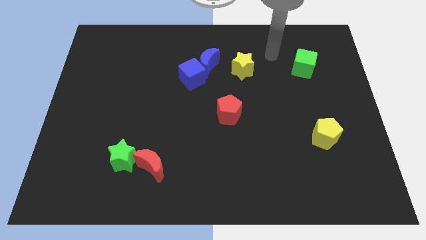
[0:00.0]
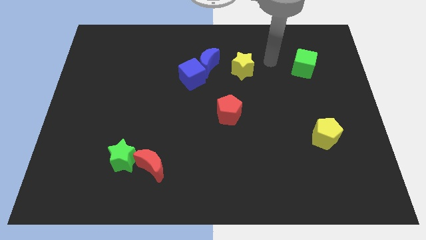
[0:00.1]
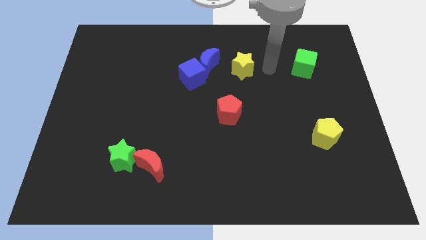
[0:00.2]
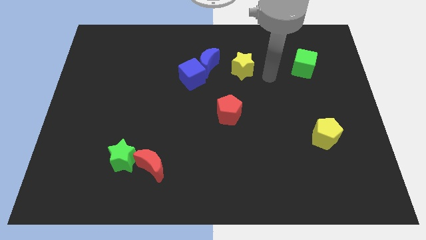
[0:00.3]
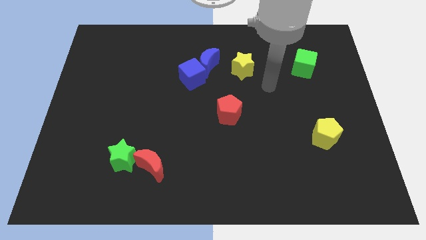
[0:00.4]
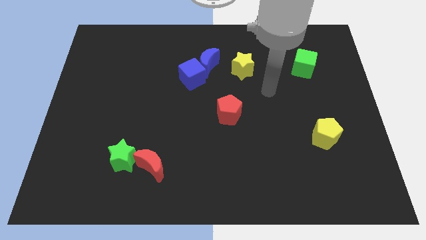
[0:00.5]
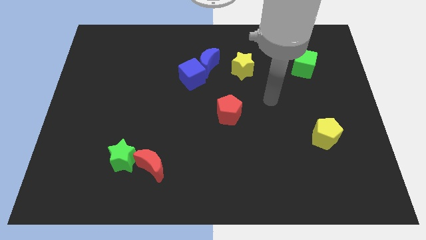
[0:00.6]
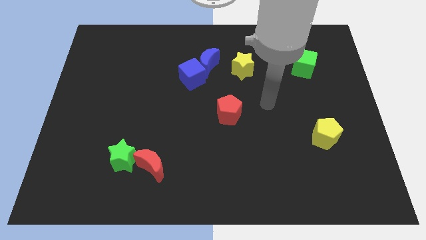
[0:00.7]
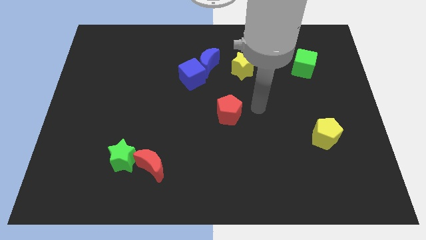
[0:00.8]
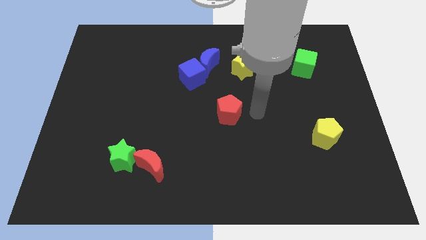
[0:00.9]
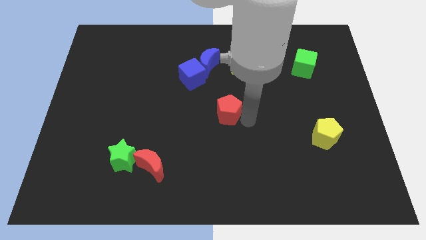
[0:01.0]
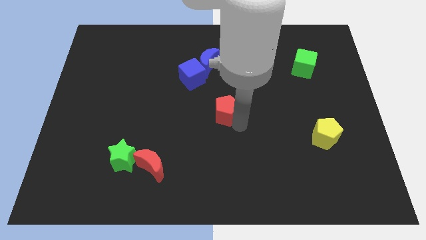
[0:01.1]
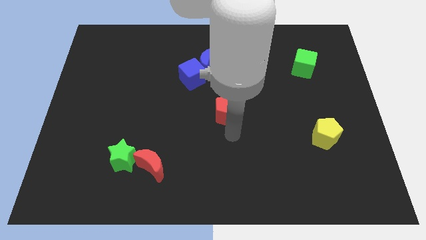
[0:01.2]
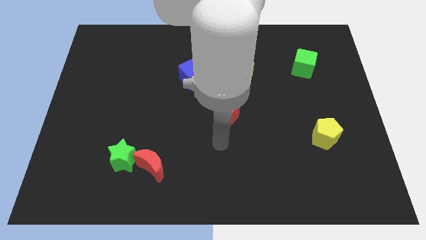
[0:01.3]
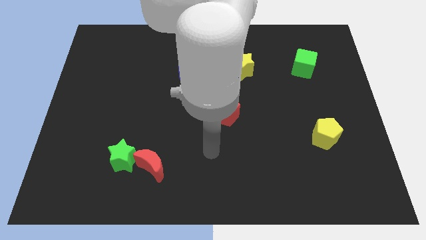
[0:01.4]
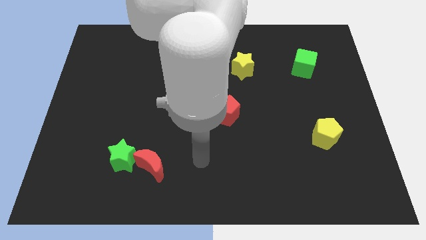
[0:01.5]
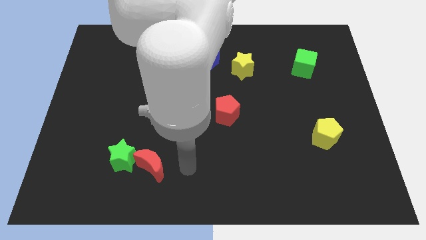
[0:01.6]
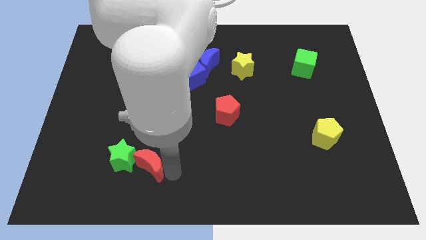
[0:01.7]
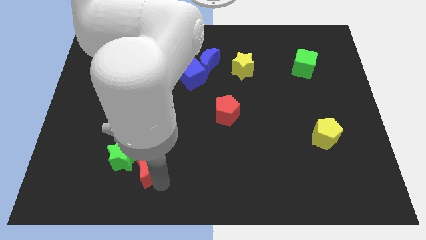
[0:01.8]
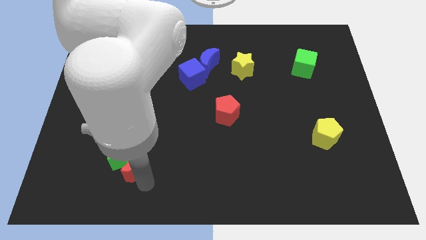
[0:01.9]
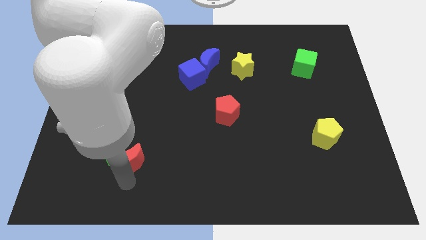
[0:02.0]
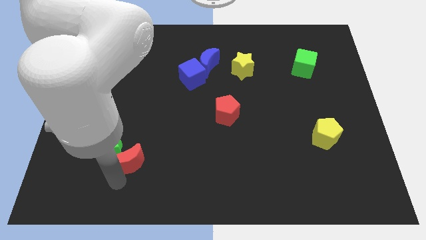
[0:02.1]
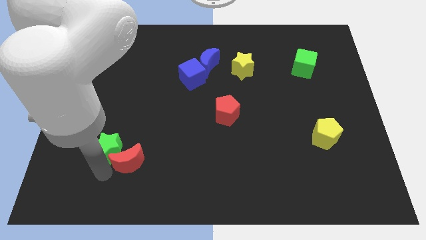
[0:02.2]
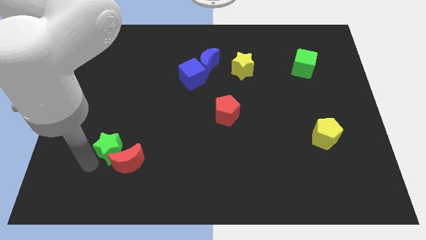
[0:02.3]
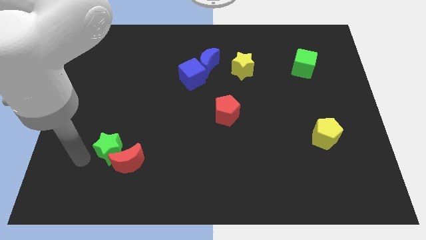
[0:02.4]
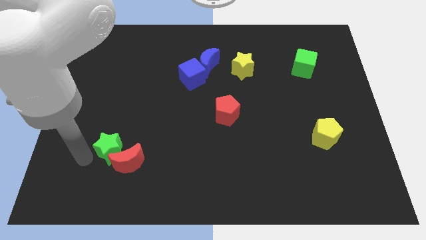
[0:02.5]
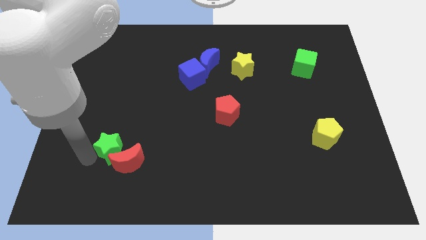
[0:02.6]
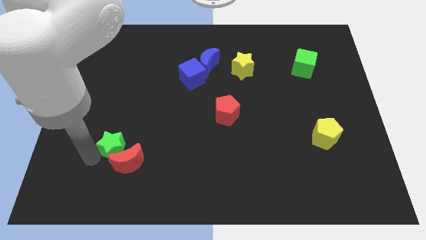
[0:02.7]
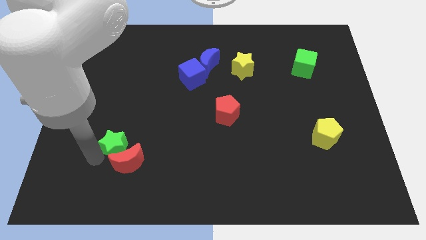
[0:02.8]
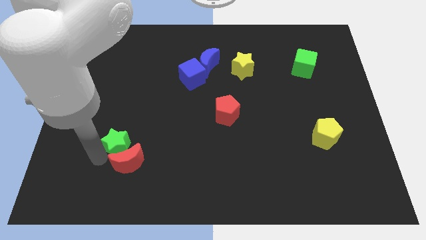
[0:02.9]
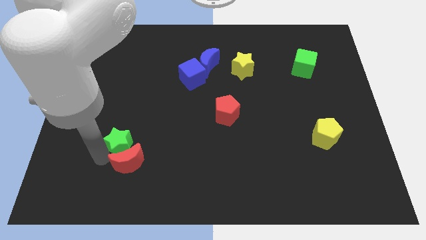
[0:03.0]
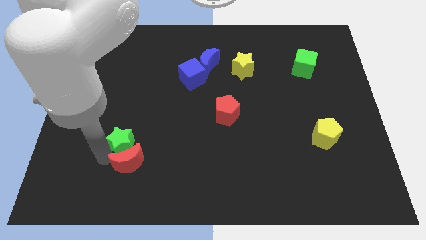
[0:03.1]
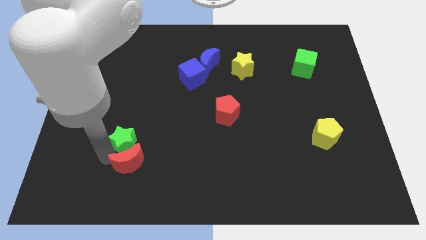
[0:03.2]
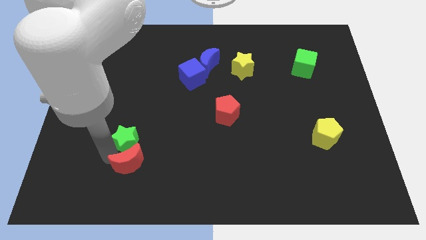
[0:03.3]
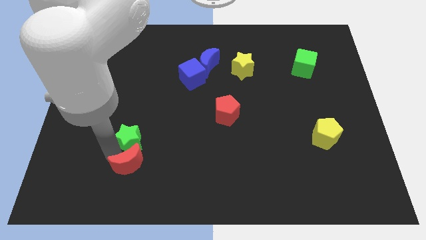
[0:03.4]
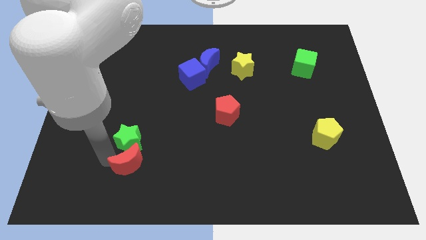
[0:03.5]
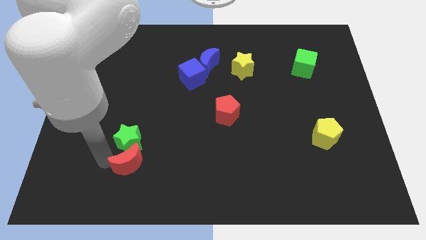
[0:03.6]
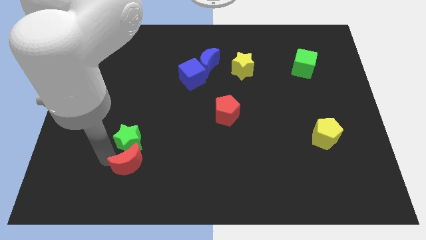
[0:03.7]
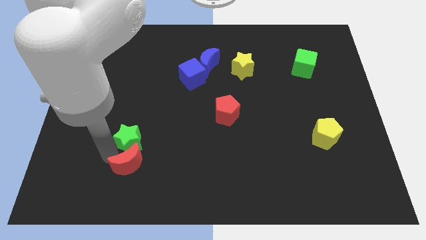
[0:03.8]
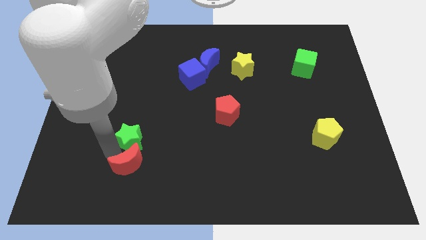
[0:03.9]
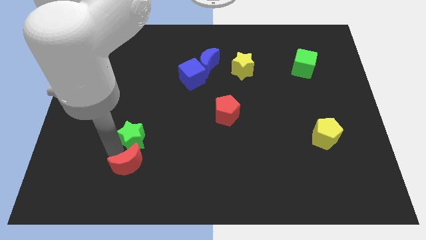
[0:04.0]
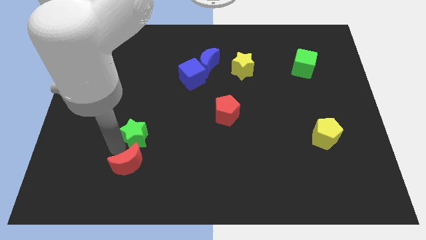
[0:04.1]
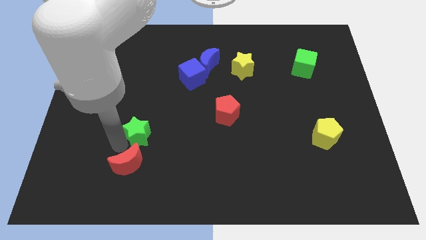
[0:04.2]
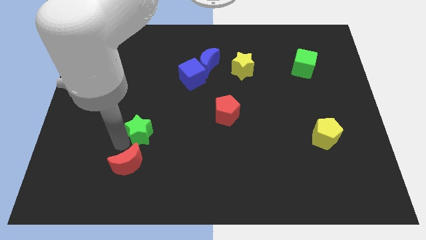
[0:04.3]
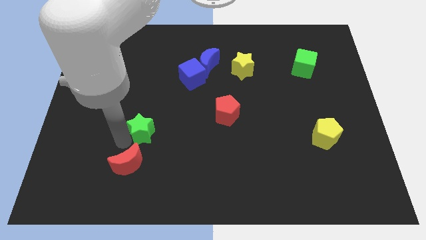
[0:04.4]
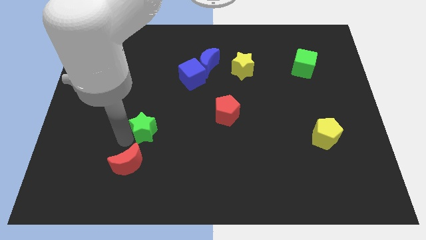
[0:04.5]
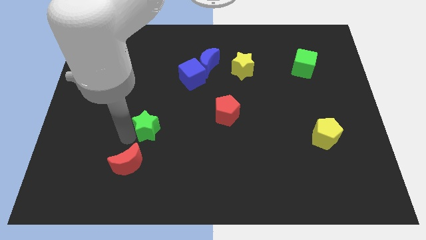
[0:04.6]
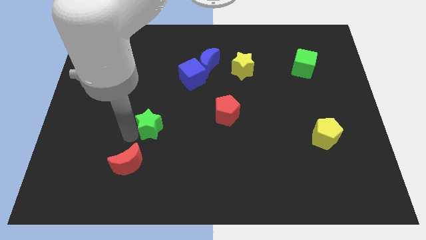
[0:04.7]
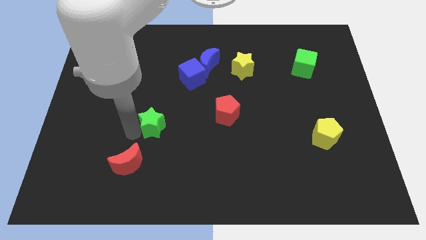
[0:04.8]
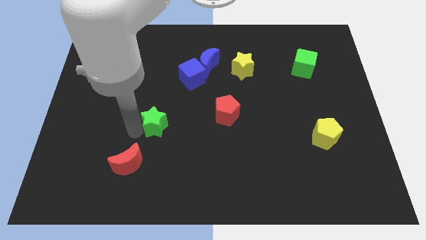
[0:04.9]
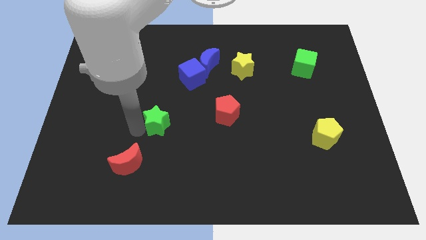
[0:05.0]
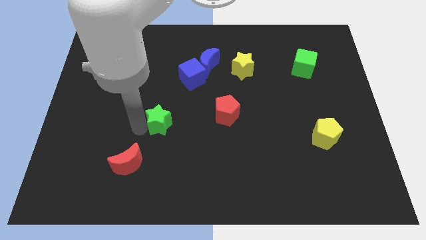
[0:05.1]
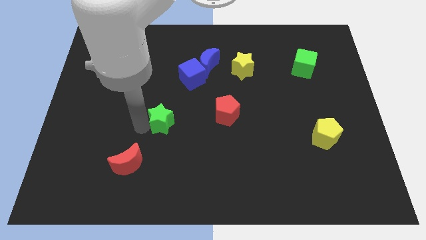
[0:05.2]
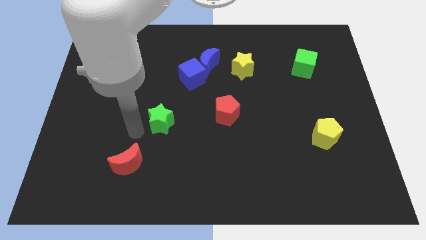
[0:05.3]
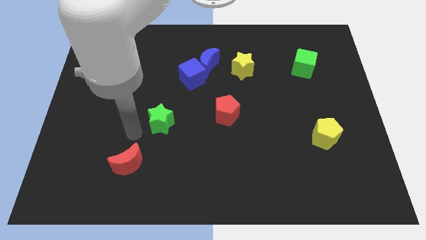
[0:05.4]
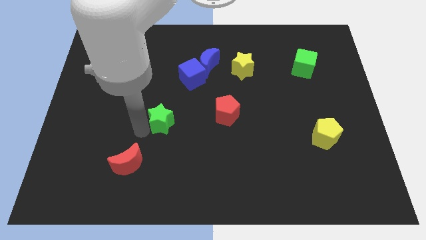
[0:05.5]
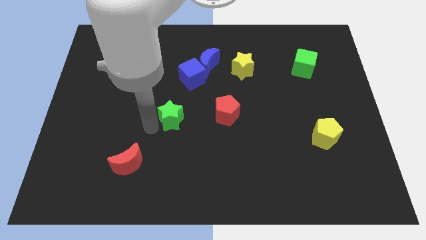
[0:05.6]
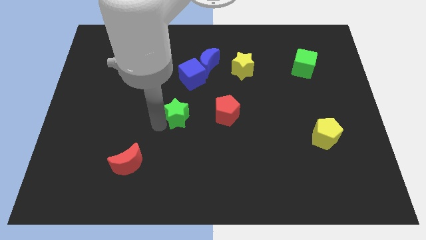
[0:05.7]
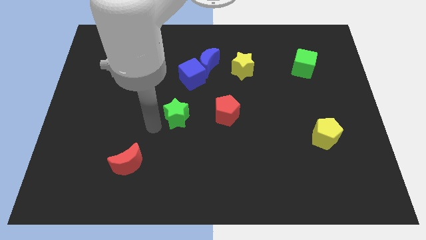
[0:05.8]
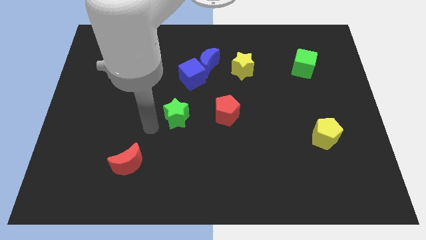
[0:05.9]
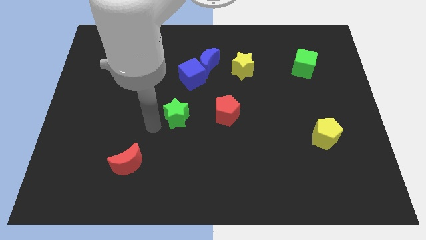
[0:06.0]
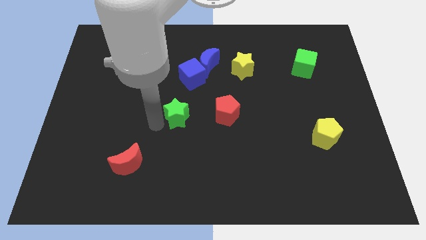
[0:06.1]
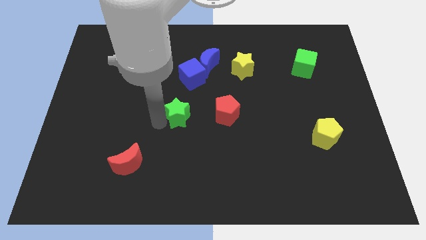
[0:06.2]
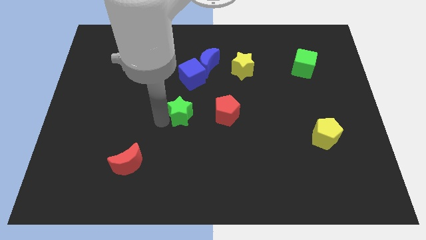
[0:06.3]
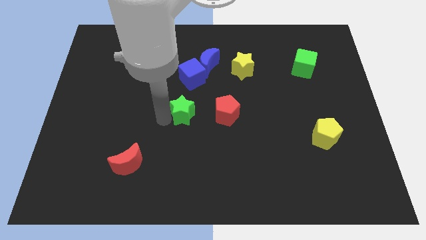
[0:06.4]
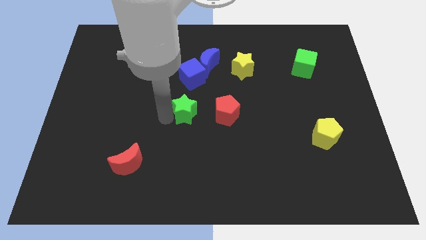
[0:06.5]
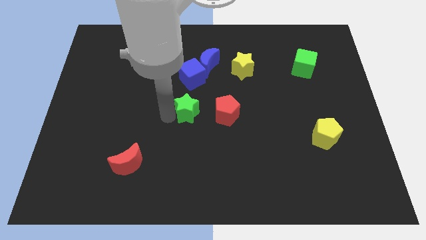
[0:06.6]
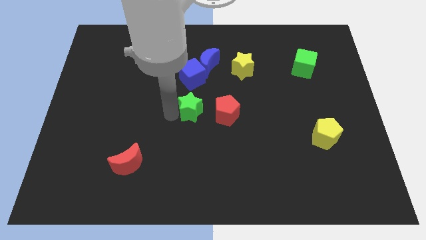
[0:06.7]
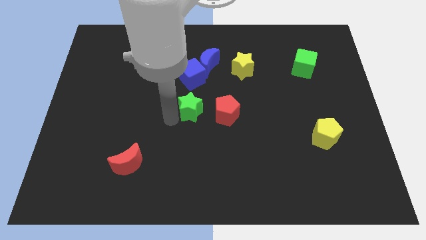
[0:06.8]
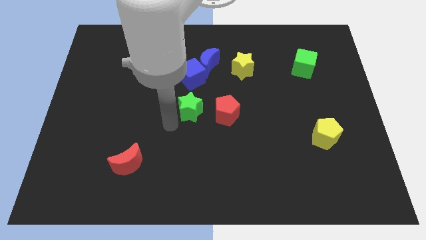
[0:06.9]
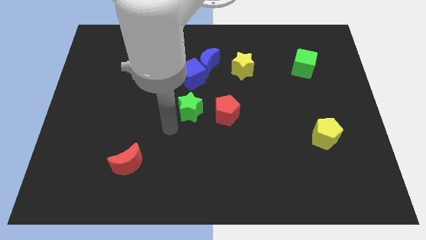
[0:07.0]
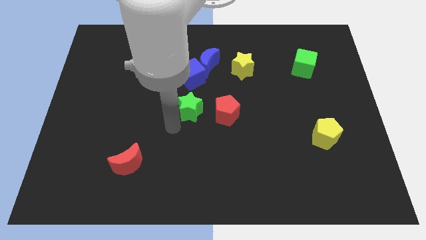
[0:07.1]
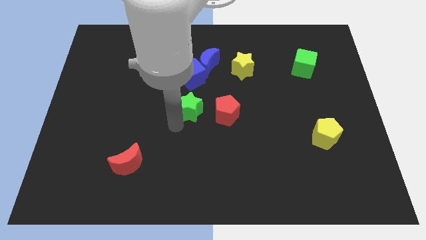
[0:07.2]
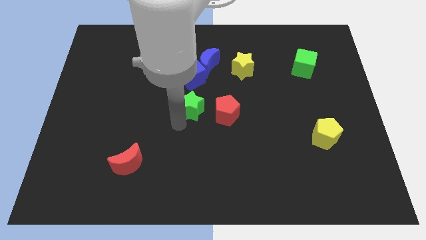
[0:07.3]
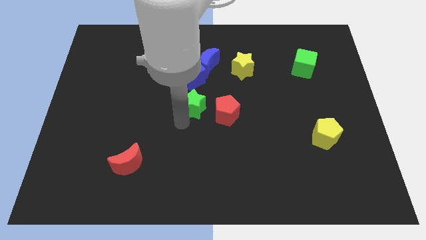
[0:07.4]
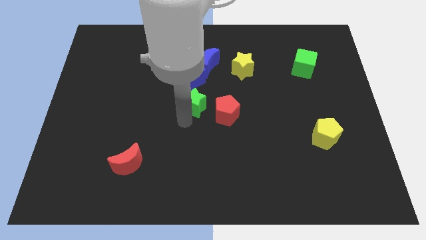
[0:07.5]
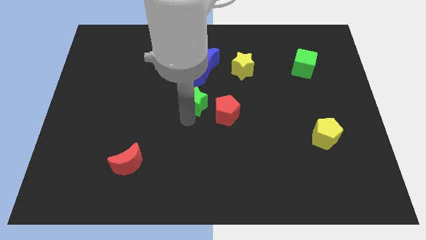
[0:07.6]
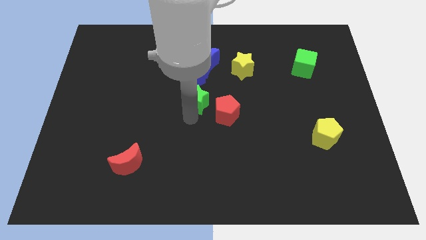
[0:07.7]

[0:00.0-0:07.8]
move the green star to the bottom right of the blue cube
